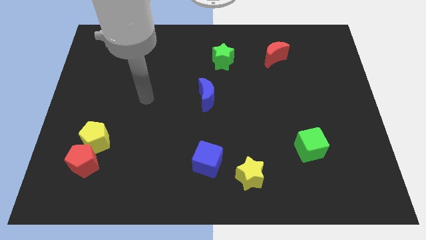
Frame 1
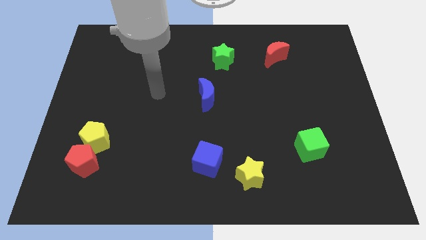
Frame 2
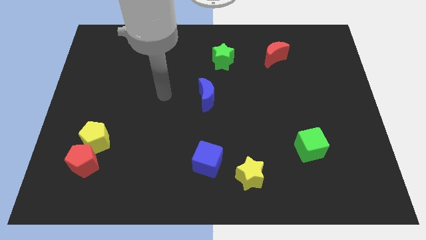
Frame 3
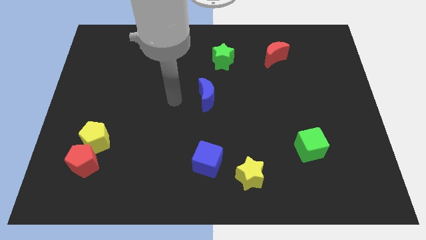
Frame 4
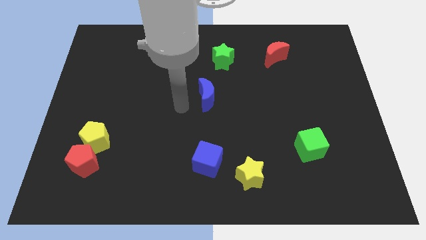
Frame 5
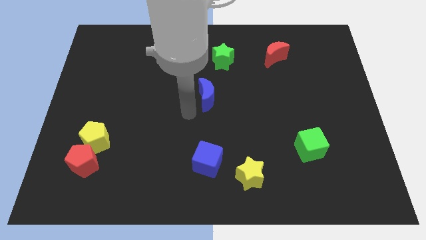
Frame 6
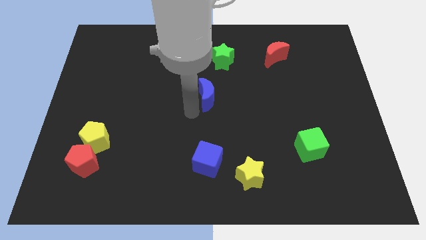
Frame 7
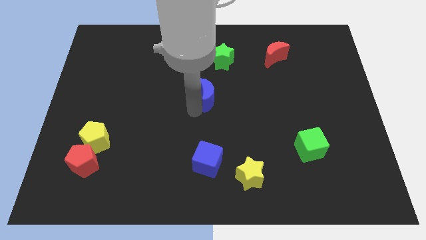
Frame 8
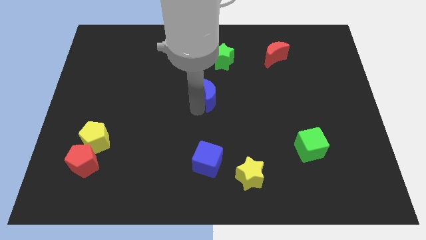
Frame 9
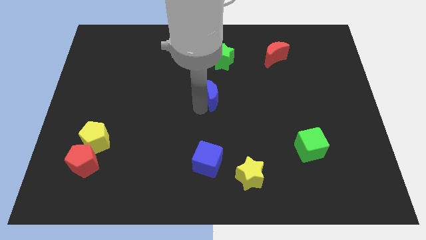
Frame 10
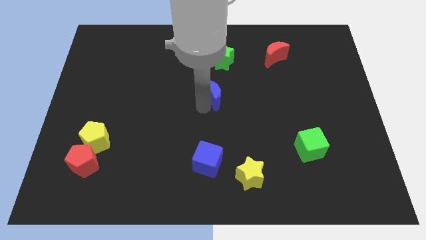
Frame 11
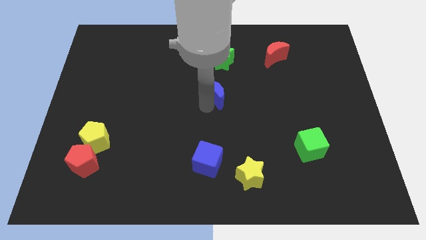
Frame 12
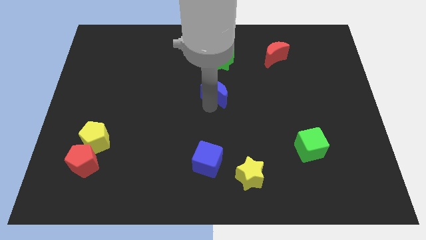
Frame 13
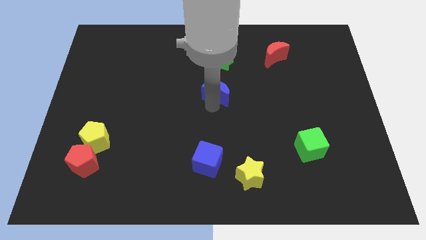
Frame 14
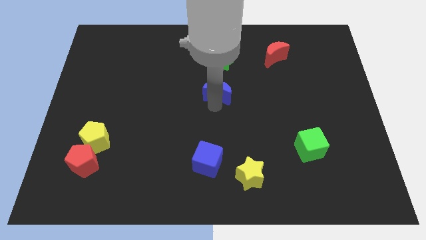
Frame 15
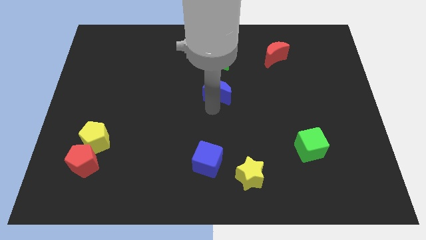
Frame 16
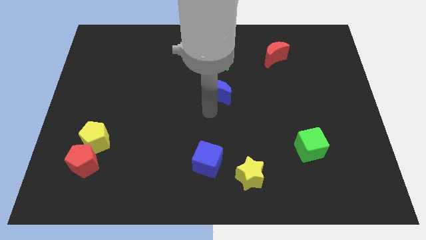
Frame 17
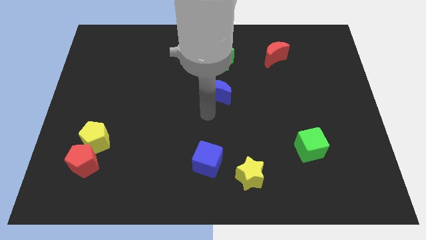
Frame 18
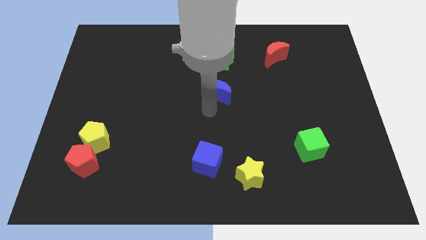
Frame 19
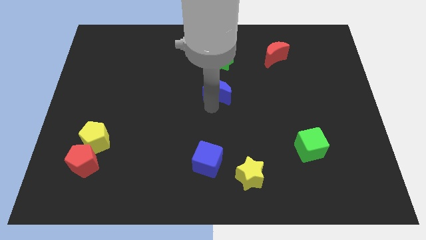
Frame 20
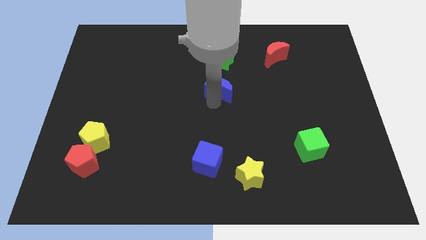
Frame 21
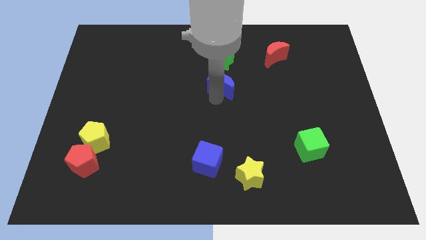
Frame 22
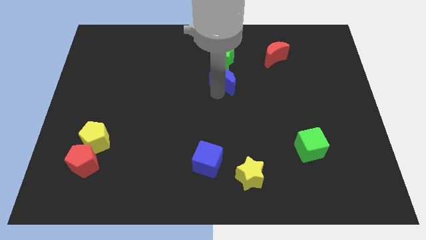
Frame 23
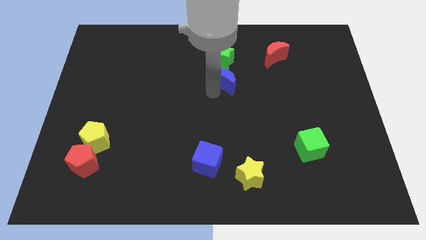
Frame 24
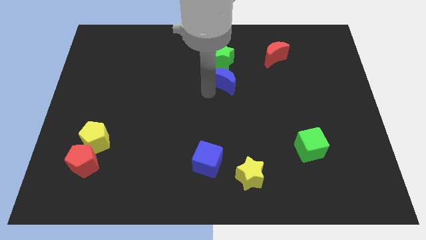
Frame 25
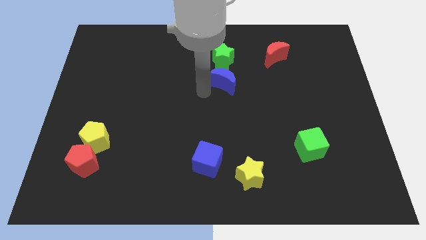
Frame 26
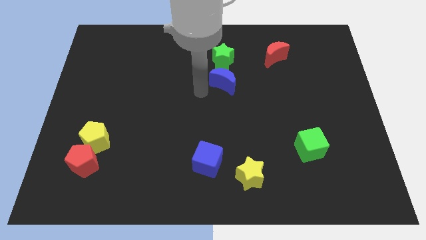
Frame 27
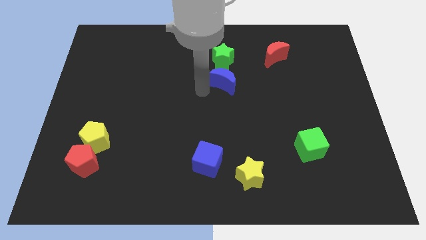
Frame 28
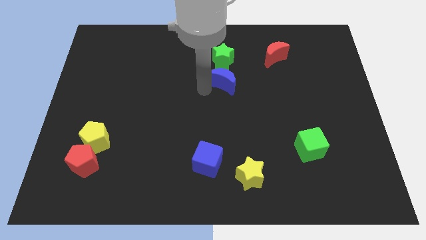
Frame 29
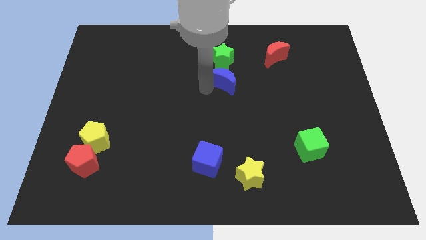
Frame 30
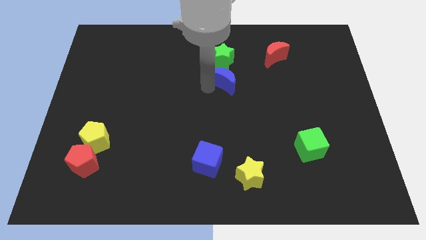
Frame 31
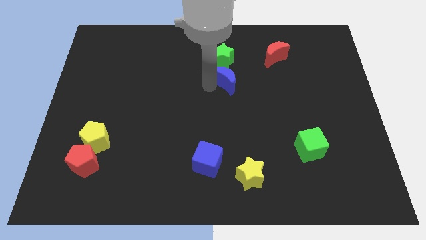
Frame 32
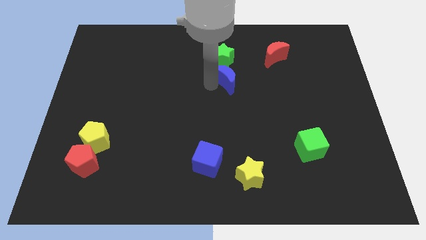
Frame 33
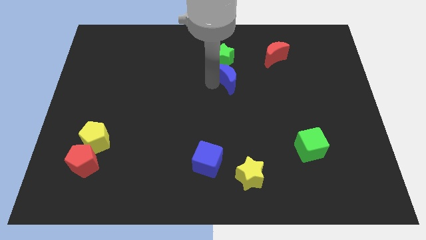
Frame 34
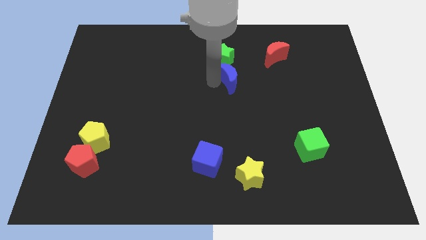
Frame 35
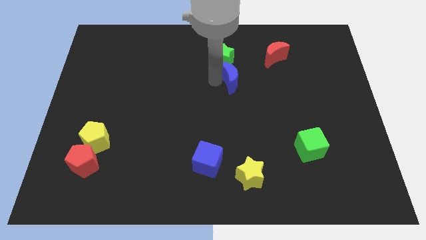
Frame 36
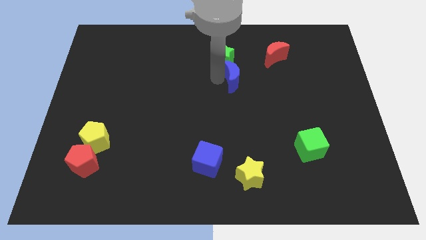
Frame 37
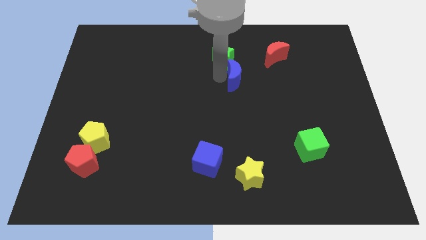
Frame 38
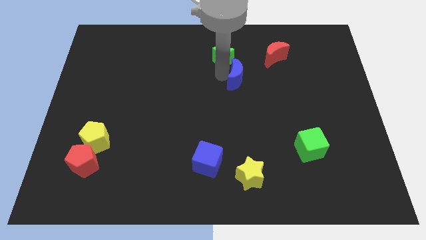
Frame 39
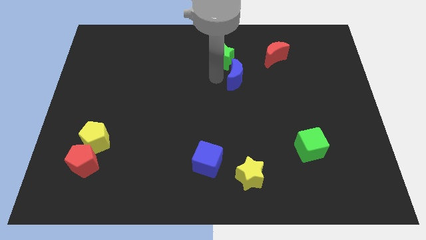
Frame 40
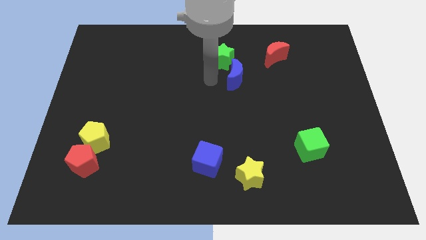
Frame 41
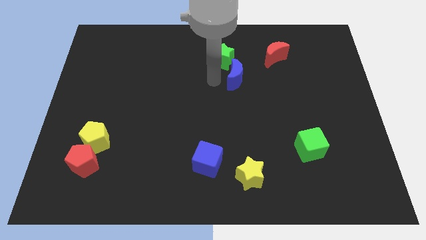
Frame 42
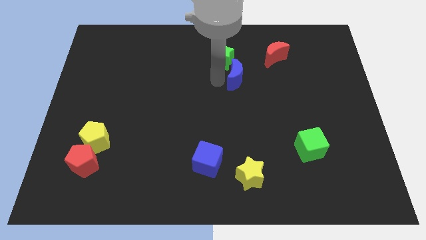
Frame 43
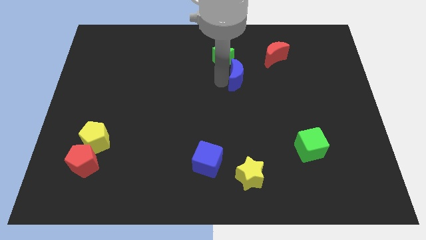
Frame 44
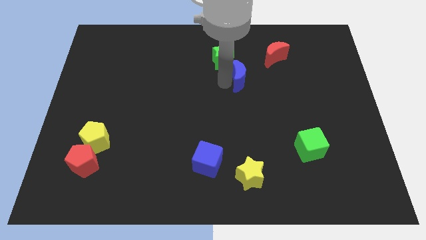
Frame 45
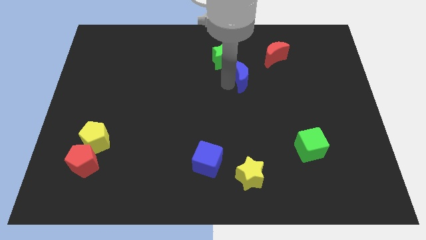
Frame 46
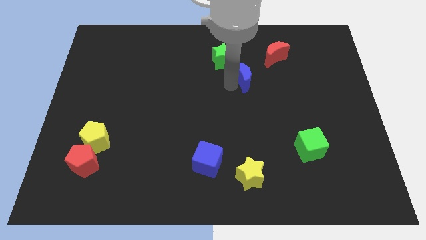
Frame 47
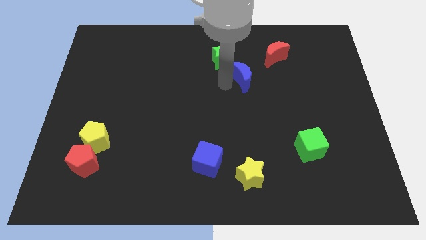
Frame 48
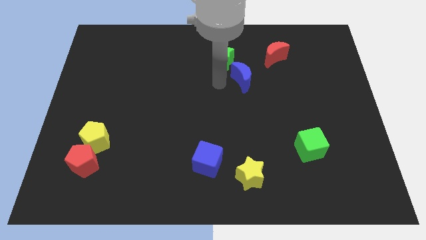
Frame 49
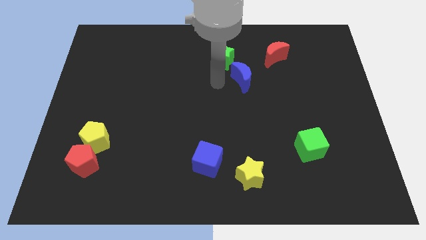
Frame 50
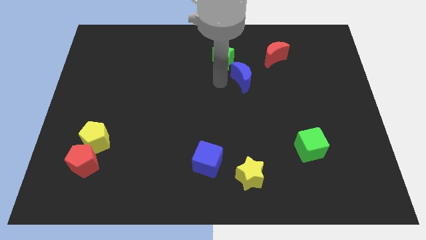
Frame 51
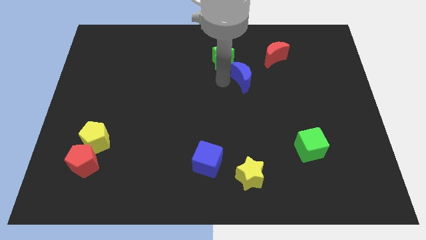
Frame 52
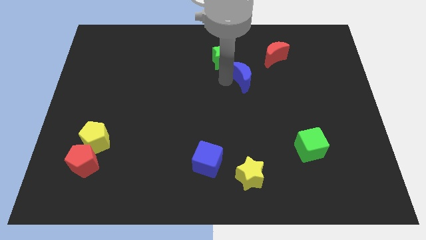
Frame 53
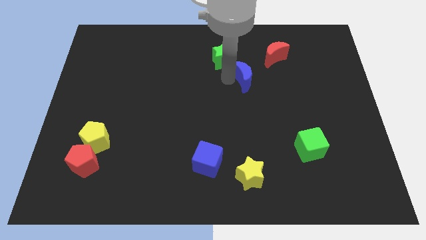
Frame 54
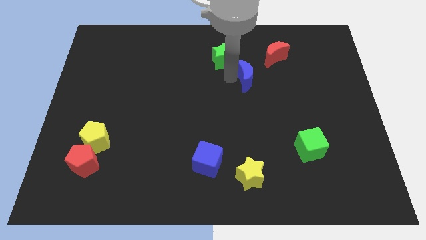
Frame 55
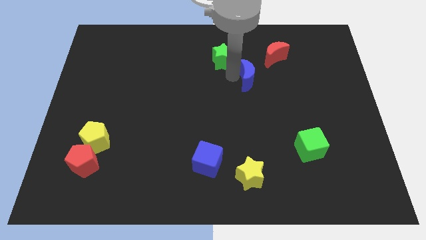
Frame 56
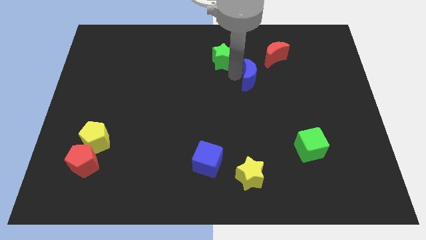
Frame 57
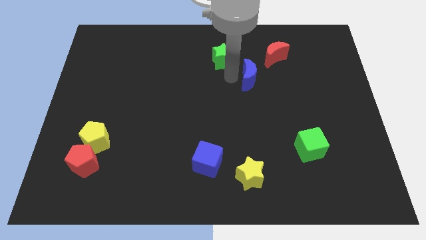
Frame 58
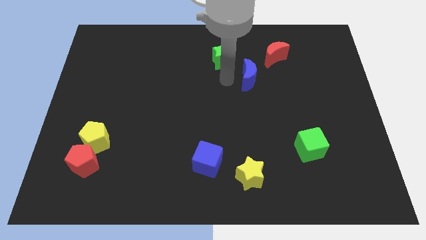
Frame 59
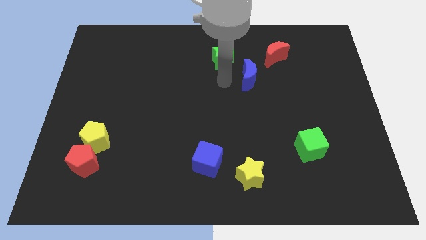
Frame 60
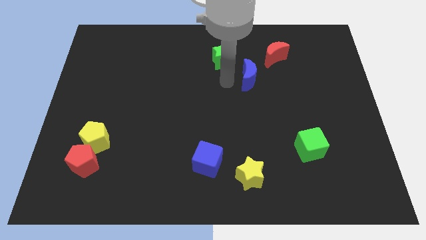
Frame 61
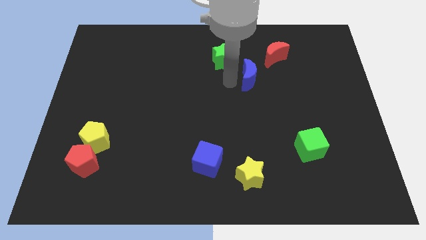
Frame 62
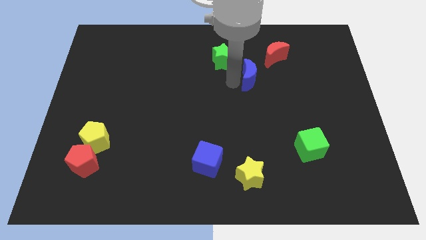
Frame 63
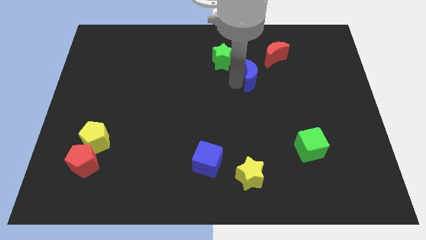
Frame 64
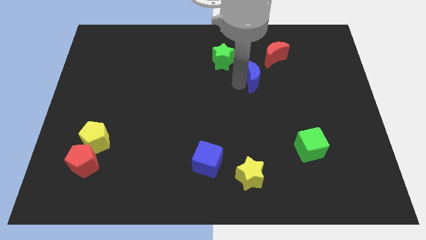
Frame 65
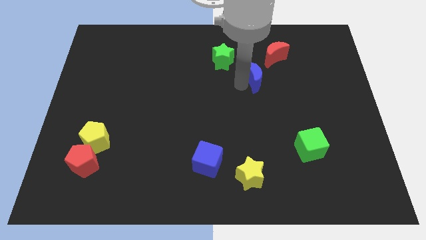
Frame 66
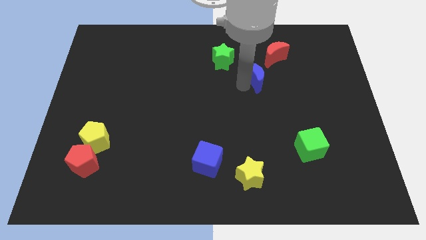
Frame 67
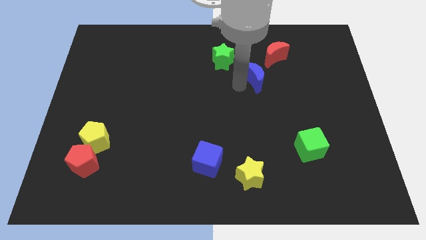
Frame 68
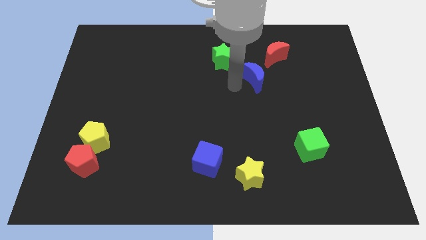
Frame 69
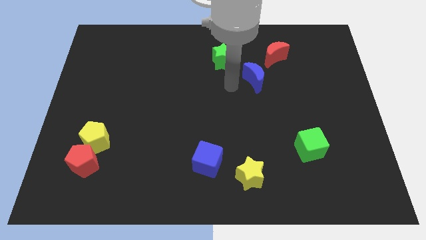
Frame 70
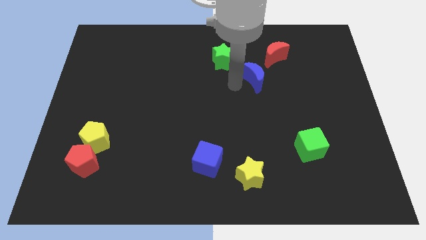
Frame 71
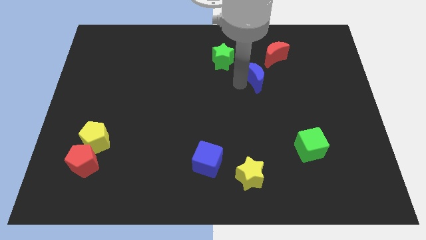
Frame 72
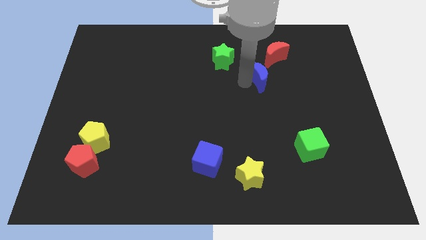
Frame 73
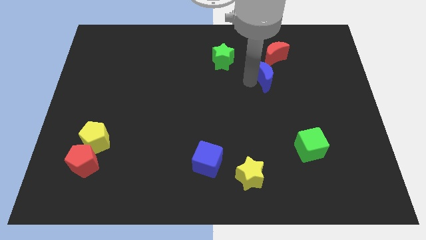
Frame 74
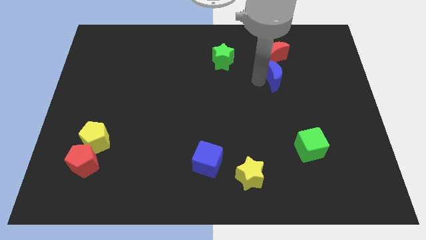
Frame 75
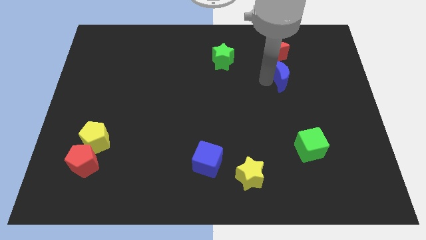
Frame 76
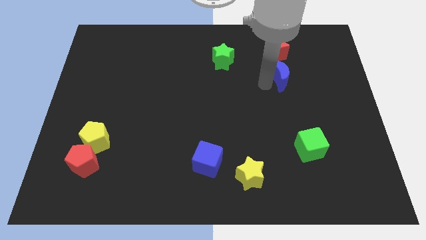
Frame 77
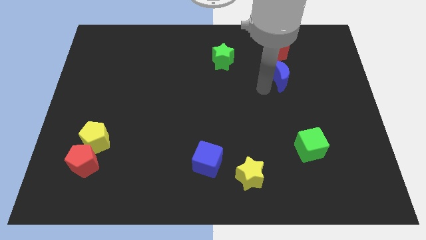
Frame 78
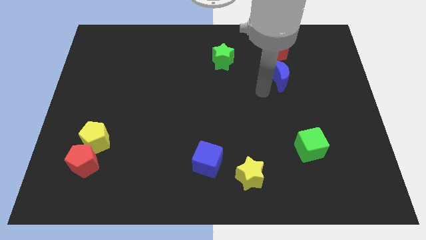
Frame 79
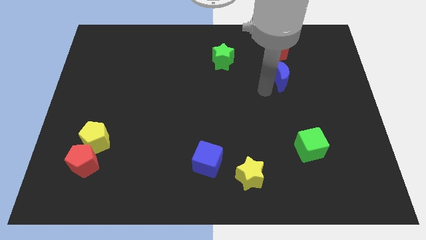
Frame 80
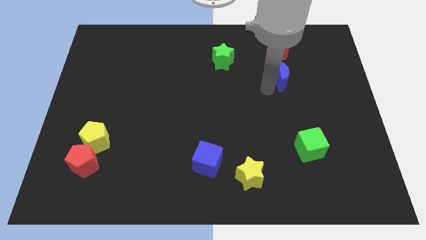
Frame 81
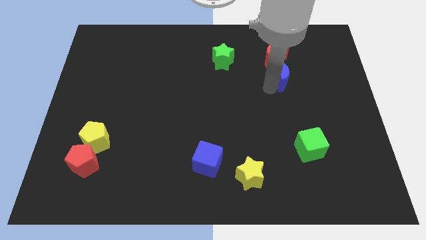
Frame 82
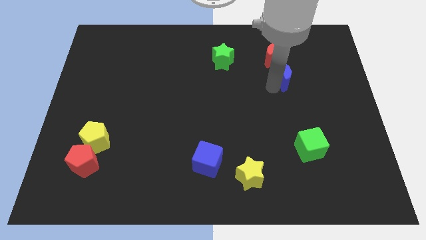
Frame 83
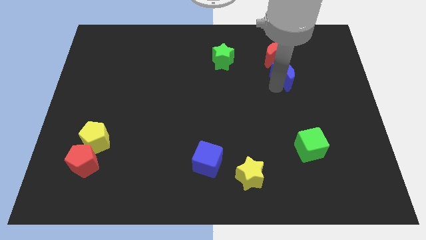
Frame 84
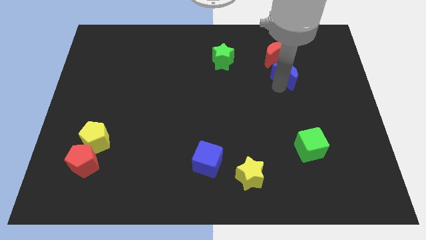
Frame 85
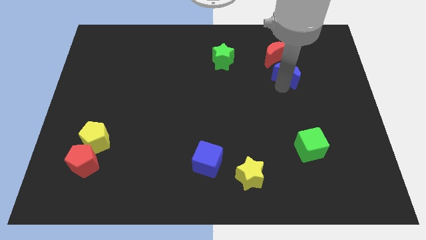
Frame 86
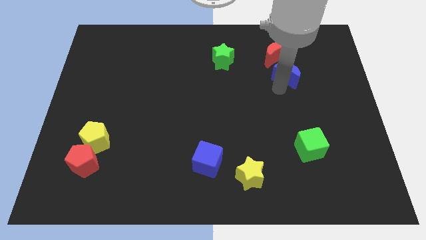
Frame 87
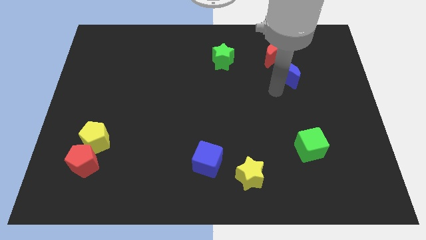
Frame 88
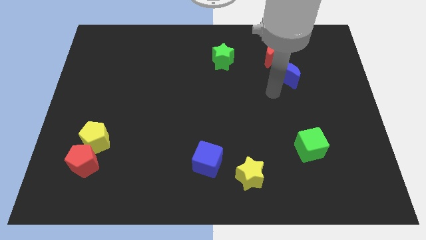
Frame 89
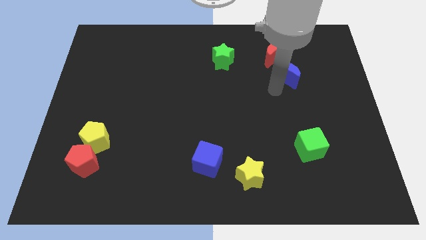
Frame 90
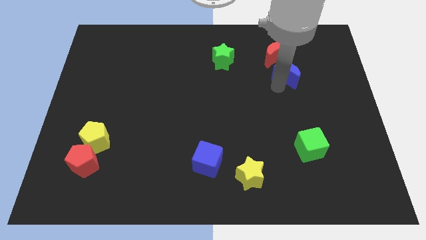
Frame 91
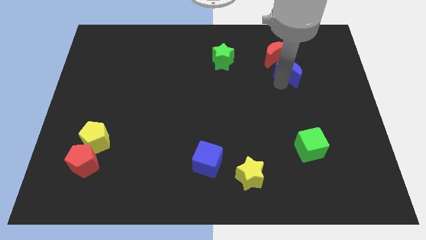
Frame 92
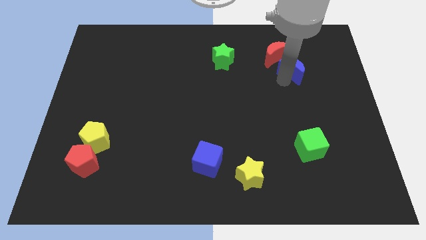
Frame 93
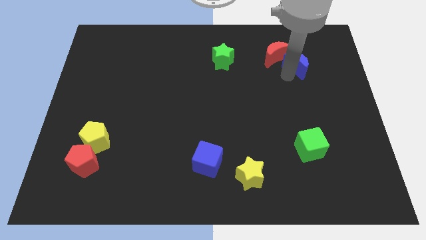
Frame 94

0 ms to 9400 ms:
push the blue moon just right of the red moon
